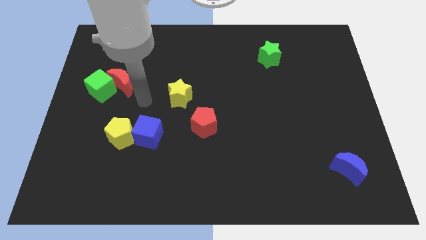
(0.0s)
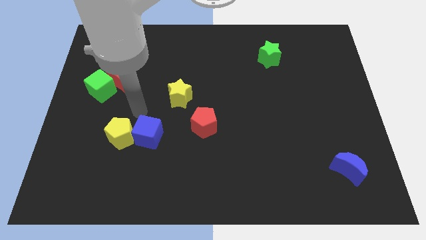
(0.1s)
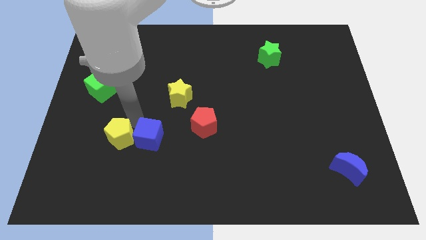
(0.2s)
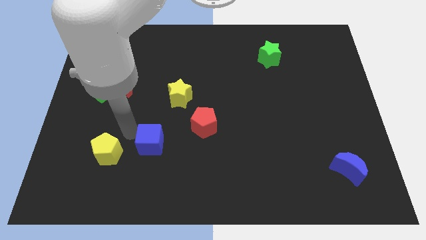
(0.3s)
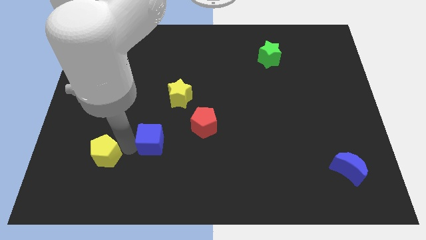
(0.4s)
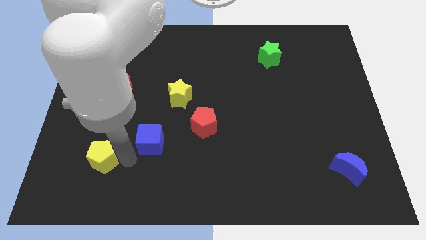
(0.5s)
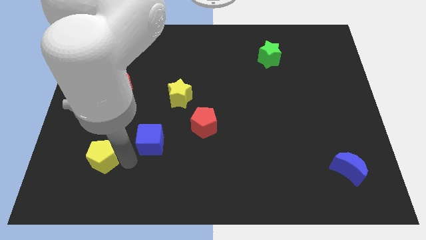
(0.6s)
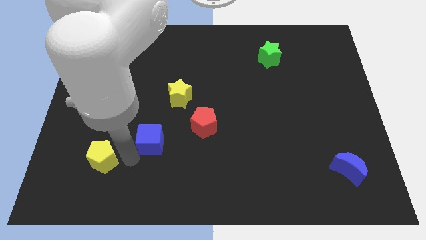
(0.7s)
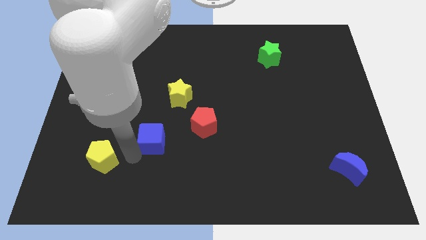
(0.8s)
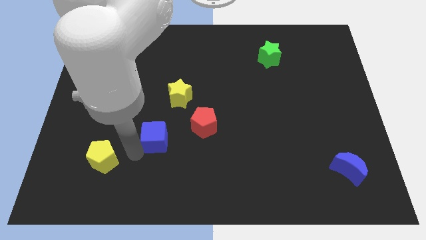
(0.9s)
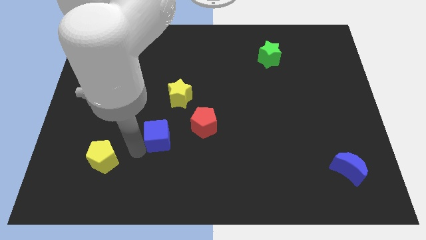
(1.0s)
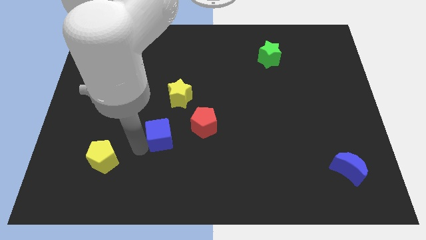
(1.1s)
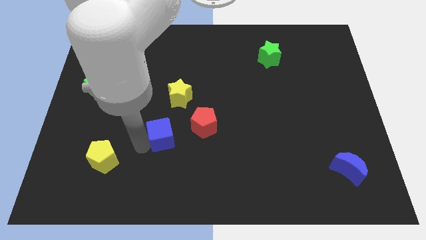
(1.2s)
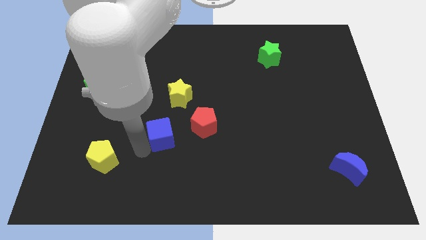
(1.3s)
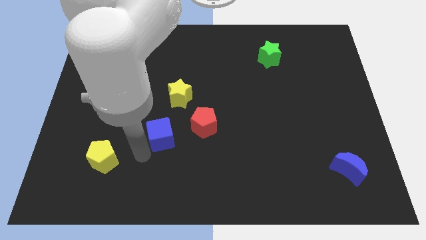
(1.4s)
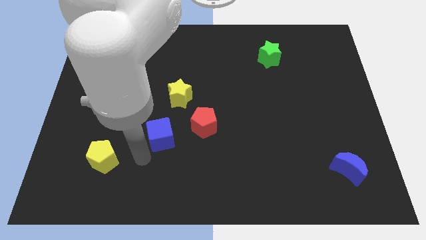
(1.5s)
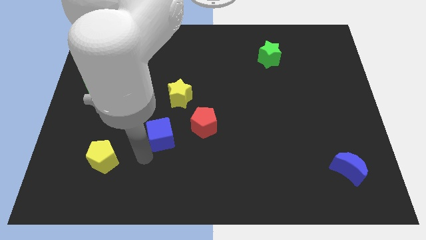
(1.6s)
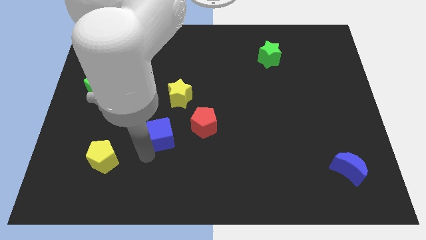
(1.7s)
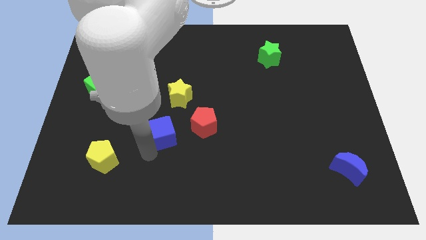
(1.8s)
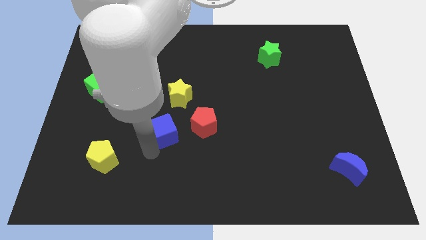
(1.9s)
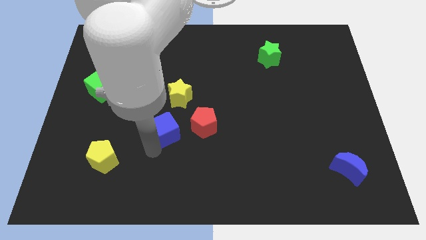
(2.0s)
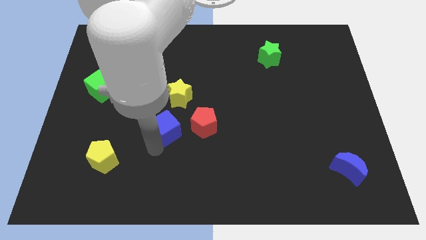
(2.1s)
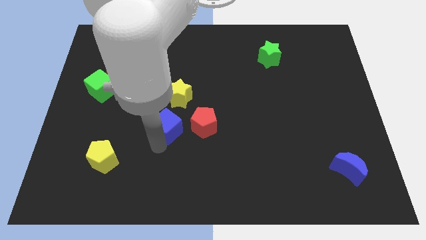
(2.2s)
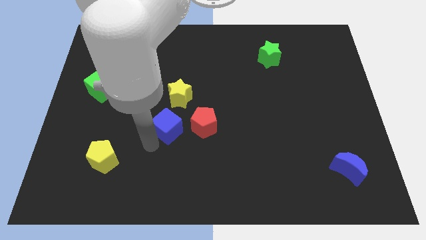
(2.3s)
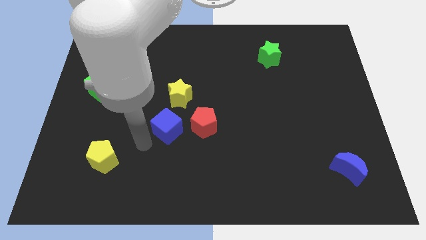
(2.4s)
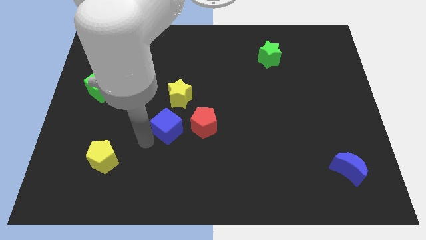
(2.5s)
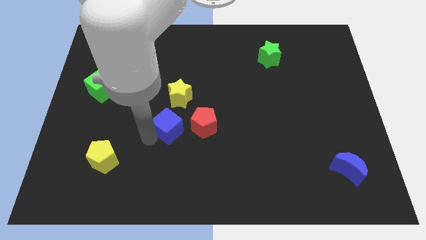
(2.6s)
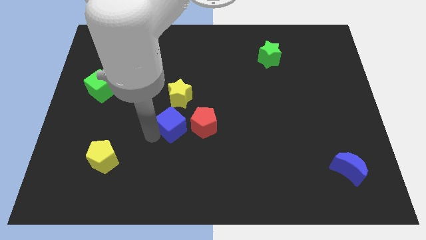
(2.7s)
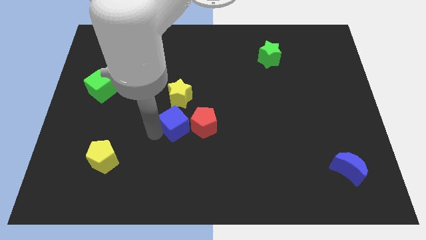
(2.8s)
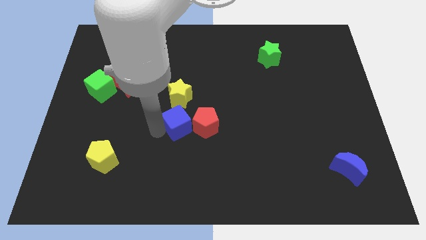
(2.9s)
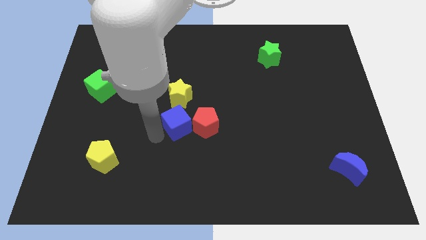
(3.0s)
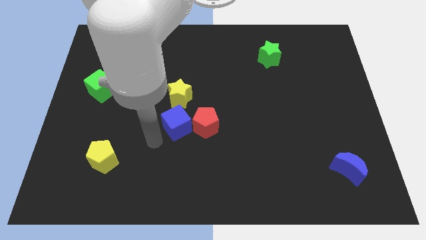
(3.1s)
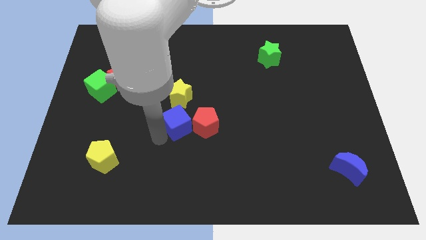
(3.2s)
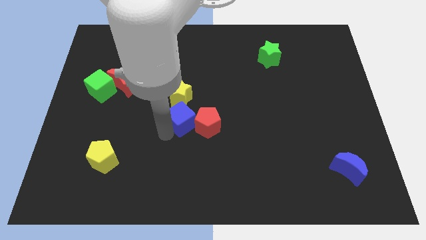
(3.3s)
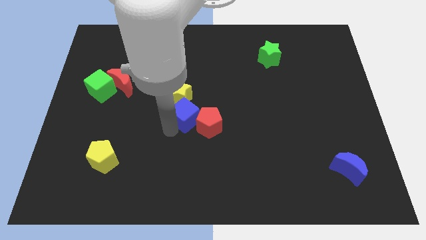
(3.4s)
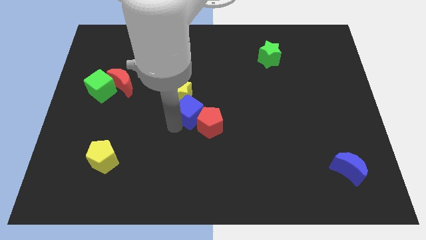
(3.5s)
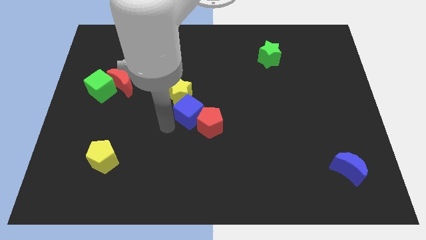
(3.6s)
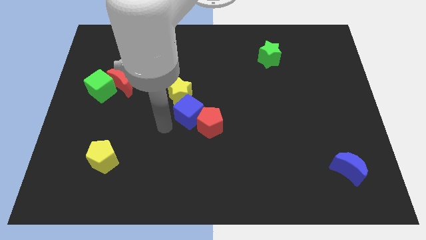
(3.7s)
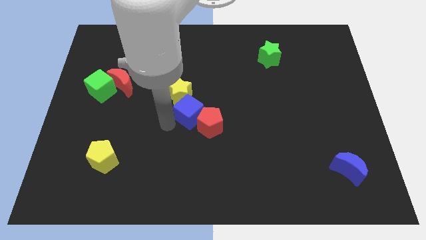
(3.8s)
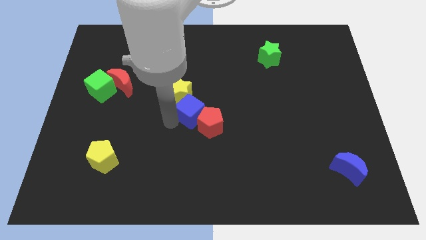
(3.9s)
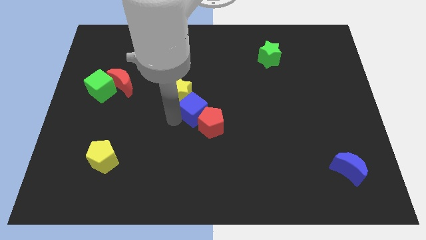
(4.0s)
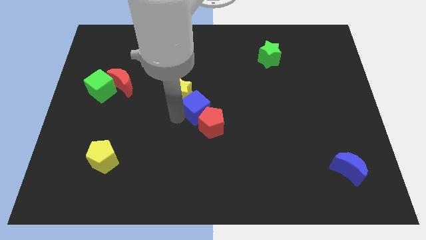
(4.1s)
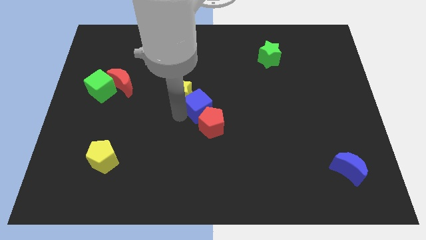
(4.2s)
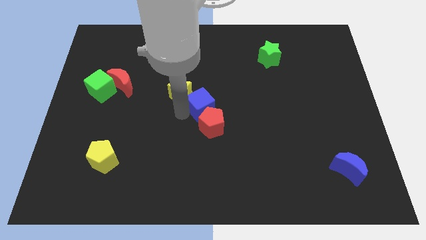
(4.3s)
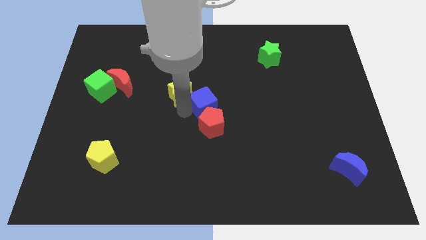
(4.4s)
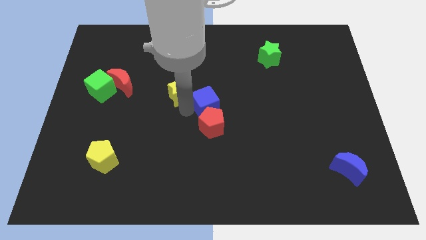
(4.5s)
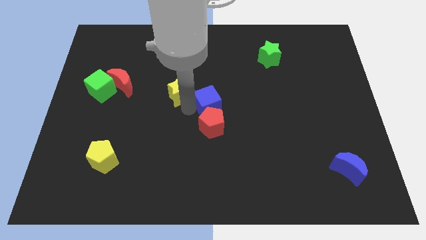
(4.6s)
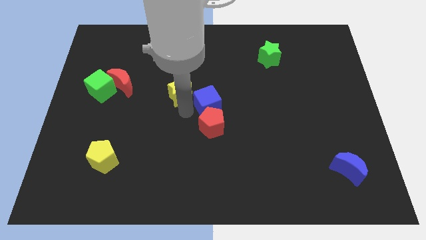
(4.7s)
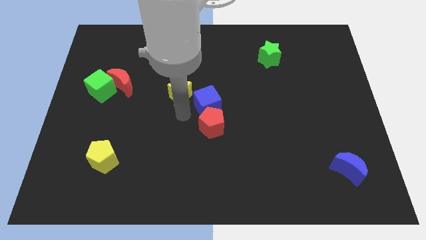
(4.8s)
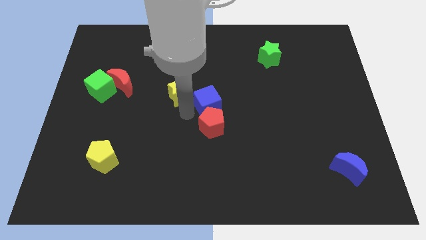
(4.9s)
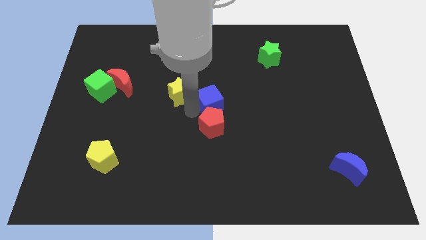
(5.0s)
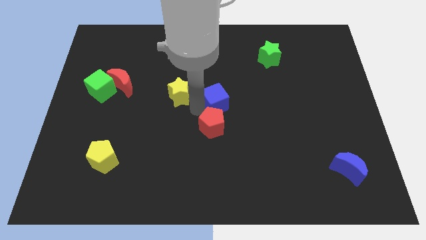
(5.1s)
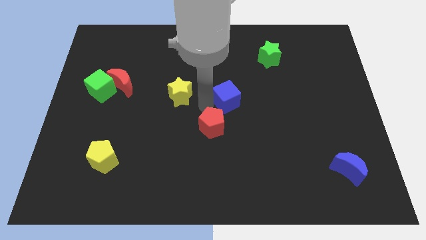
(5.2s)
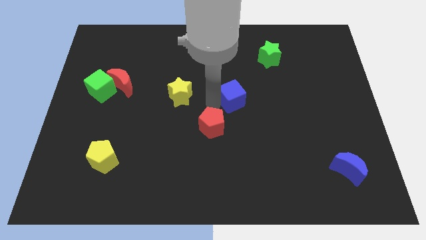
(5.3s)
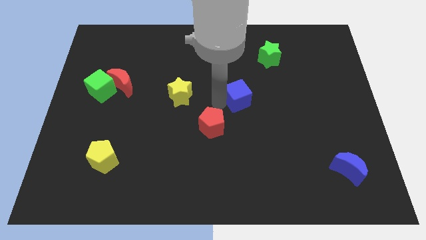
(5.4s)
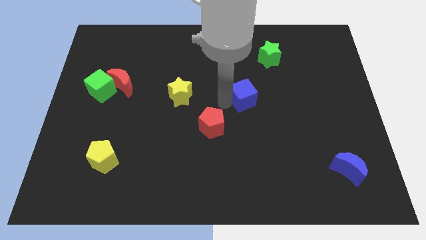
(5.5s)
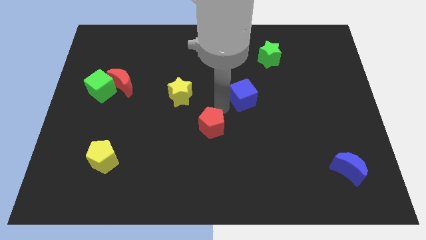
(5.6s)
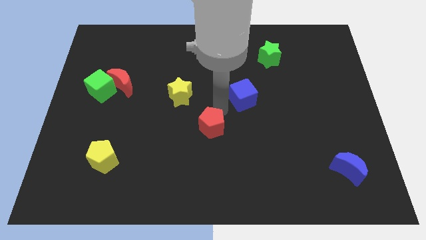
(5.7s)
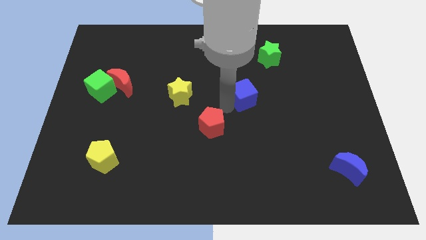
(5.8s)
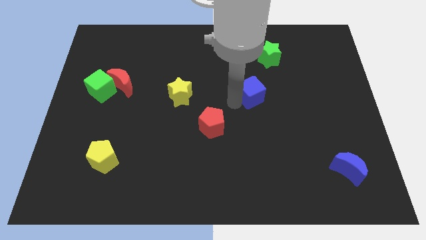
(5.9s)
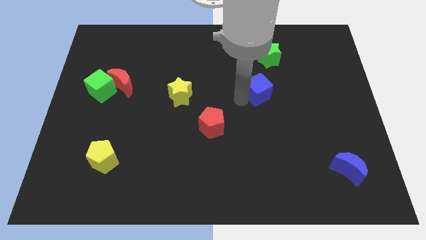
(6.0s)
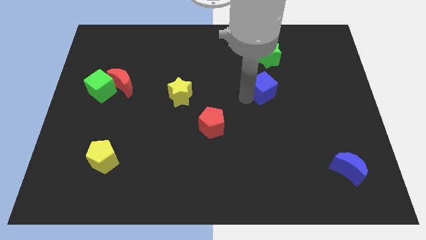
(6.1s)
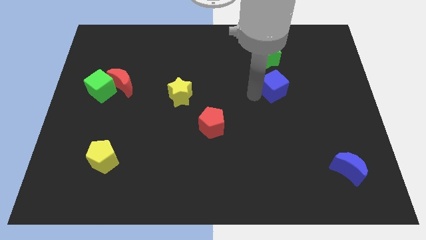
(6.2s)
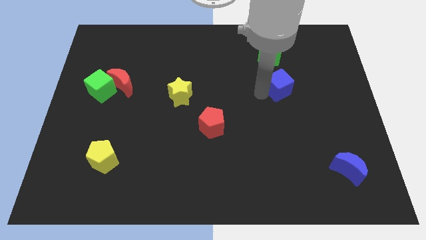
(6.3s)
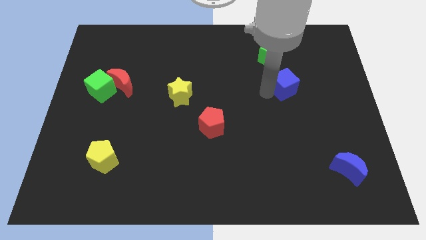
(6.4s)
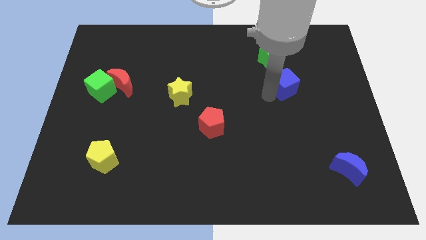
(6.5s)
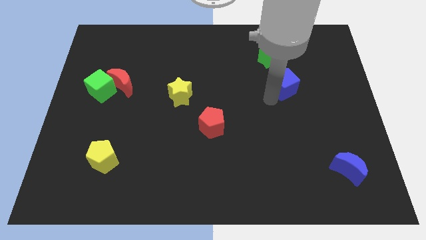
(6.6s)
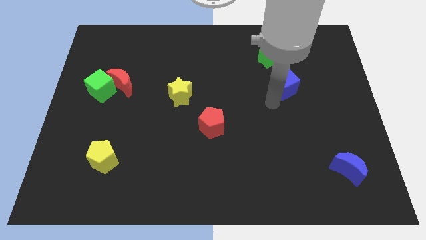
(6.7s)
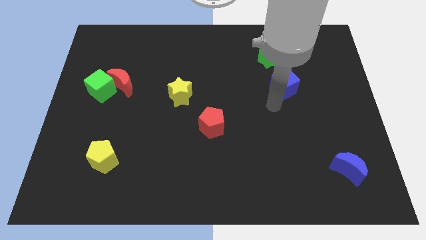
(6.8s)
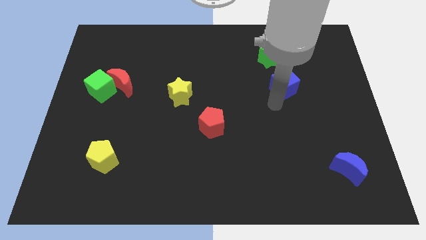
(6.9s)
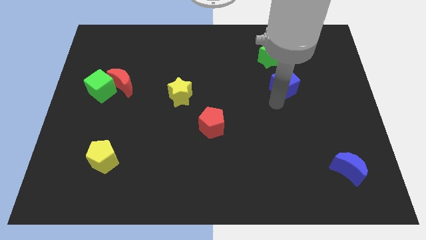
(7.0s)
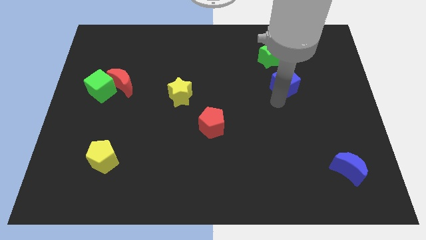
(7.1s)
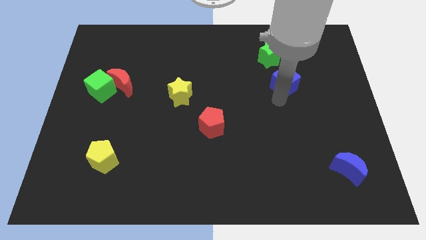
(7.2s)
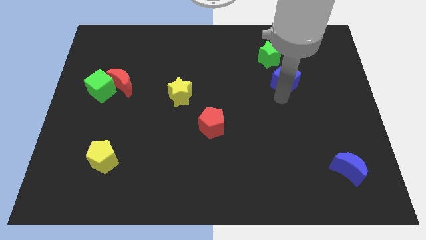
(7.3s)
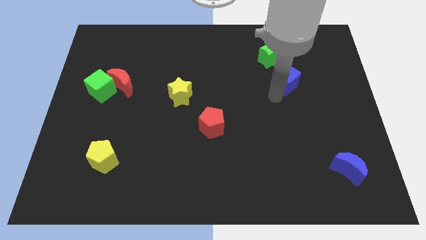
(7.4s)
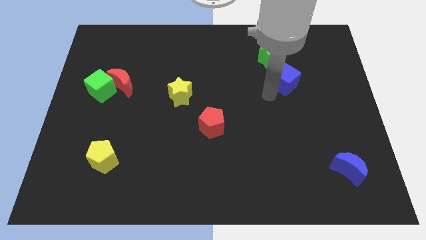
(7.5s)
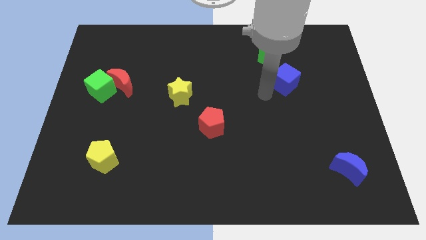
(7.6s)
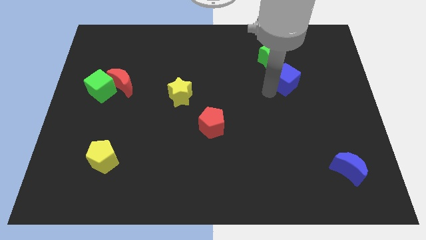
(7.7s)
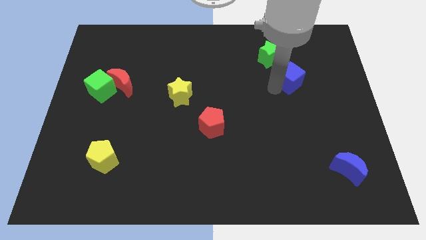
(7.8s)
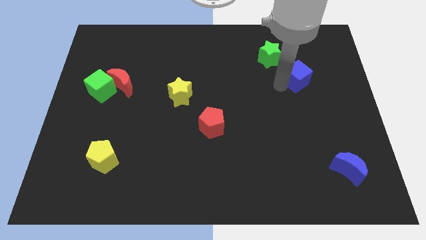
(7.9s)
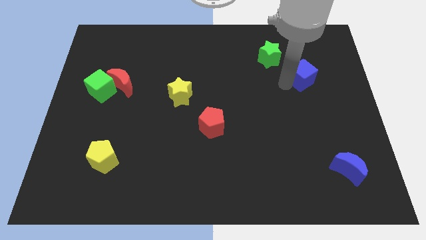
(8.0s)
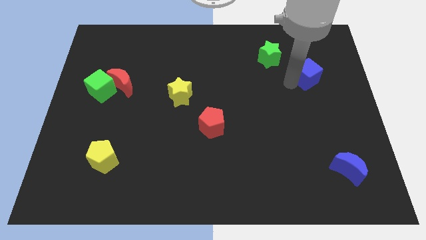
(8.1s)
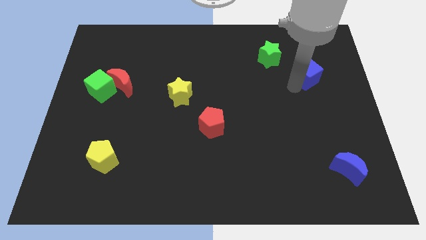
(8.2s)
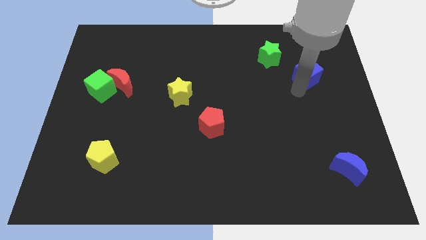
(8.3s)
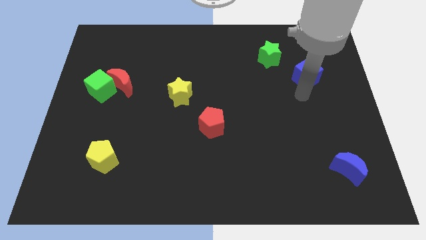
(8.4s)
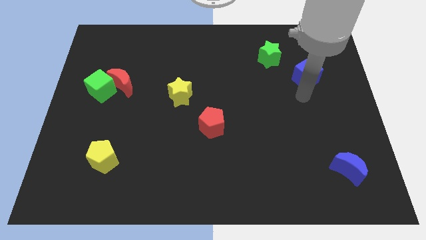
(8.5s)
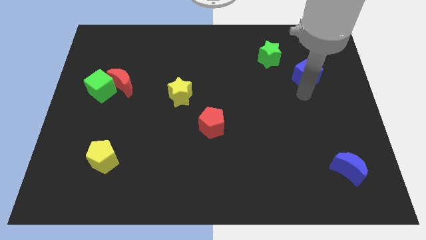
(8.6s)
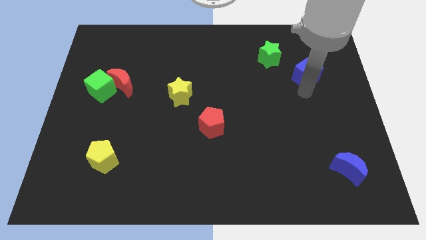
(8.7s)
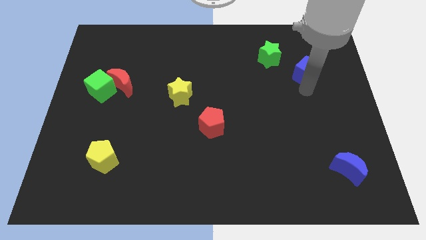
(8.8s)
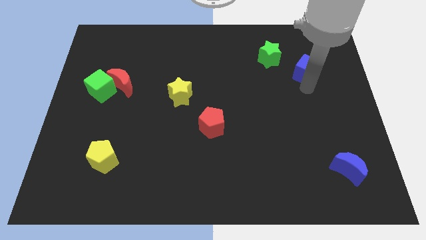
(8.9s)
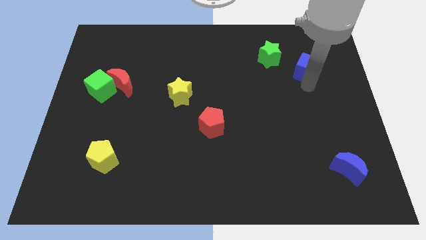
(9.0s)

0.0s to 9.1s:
push the blue cube to the right side of the green star
